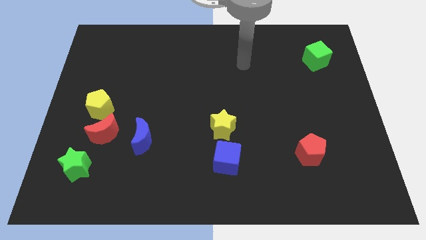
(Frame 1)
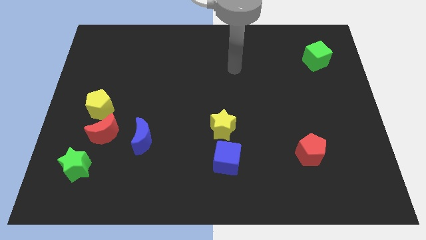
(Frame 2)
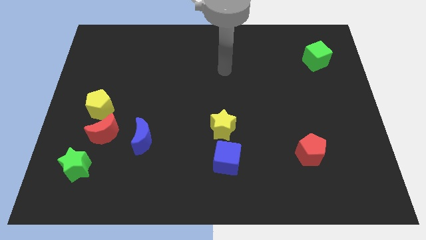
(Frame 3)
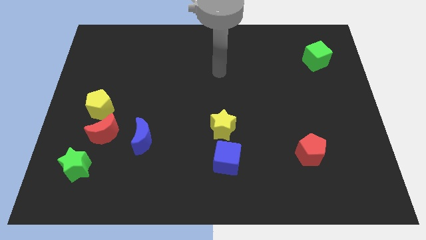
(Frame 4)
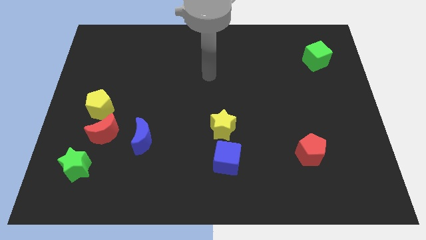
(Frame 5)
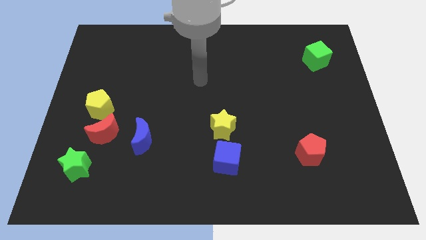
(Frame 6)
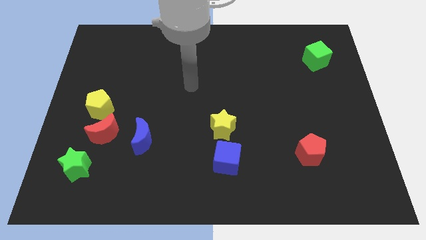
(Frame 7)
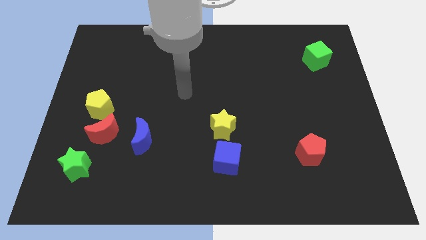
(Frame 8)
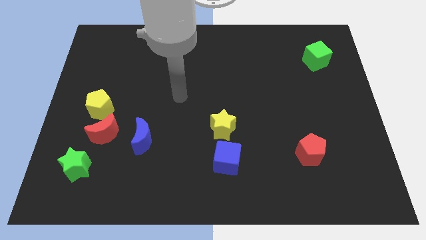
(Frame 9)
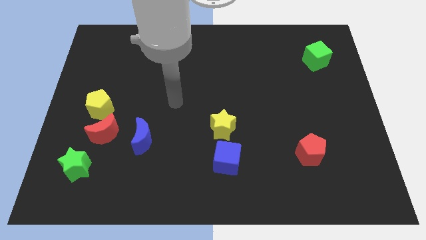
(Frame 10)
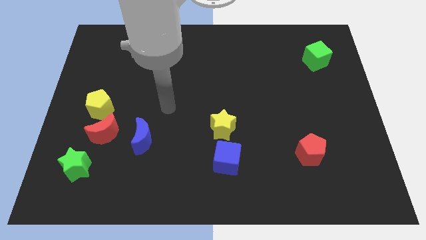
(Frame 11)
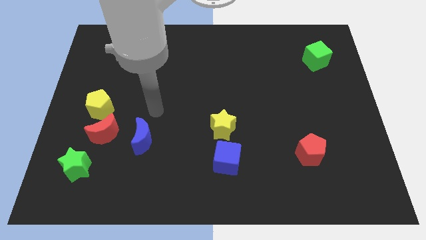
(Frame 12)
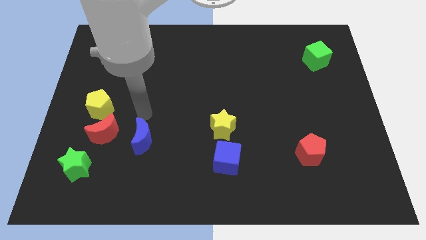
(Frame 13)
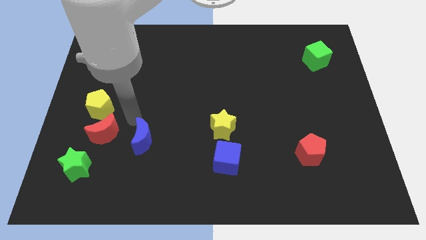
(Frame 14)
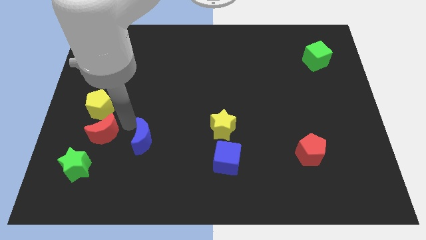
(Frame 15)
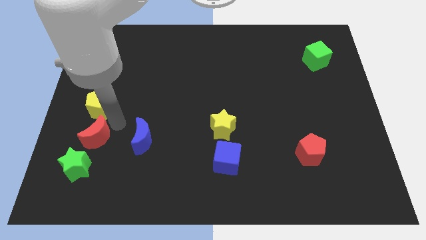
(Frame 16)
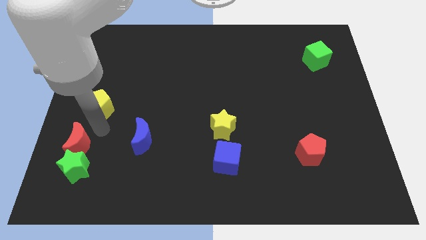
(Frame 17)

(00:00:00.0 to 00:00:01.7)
pull the yellow pentagon apart from the red moon

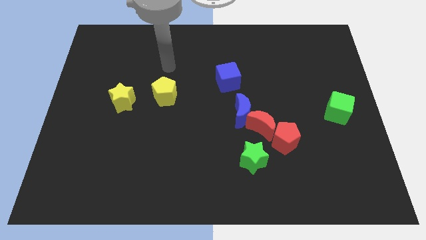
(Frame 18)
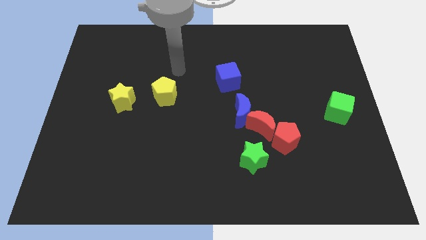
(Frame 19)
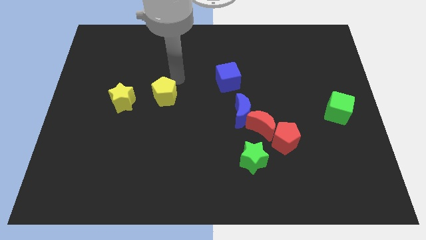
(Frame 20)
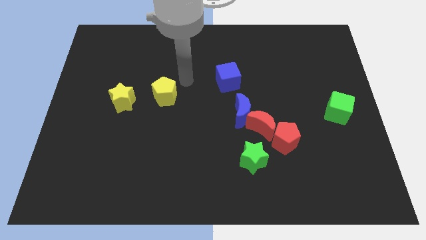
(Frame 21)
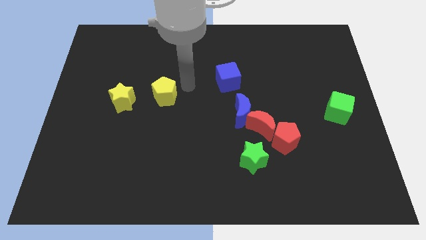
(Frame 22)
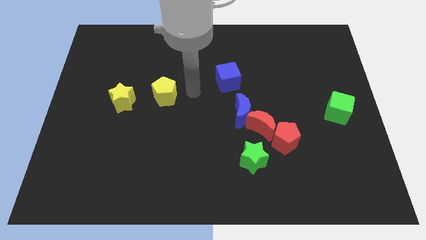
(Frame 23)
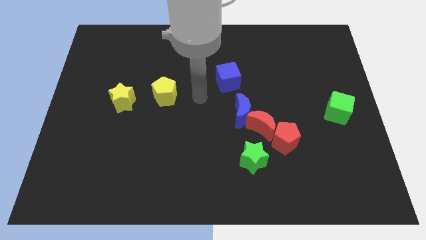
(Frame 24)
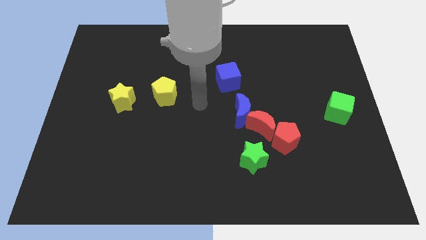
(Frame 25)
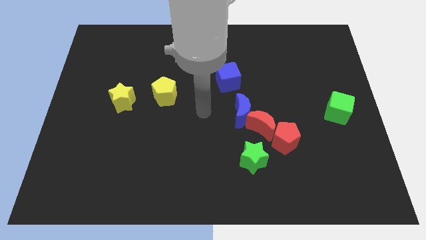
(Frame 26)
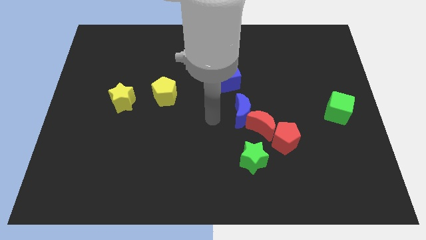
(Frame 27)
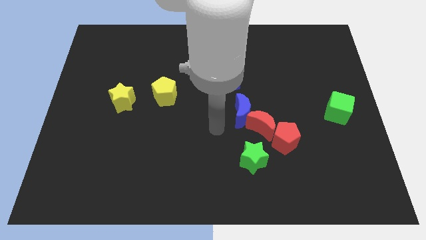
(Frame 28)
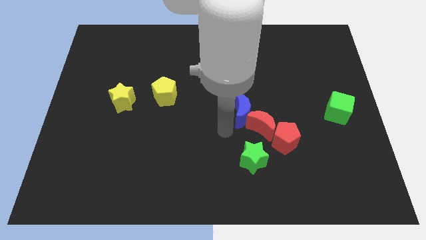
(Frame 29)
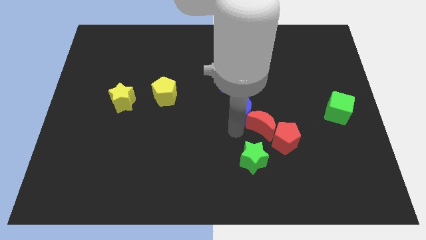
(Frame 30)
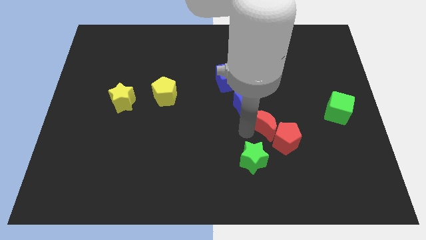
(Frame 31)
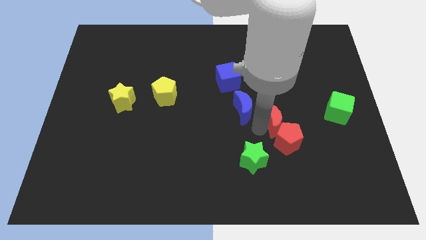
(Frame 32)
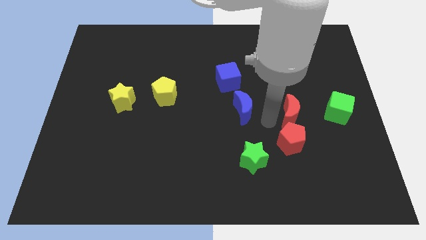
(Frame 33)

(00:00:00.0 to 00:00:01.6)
pull the blue moon apart from the red moon

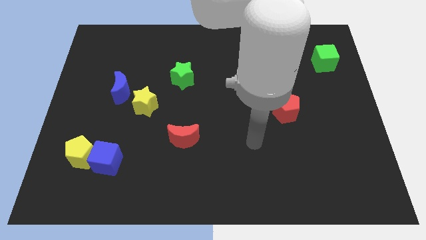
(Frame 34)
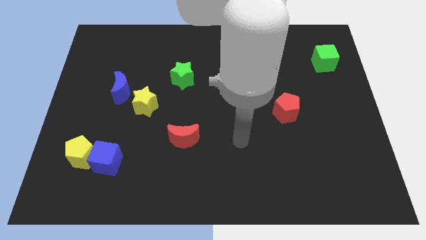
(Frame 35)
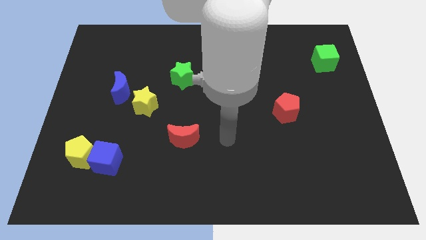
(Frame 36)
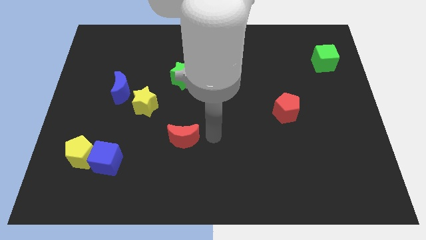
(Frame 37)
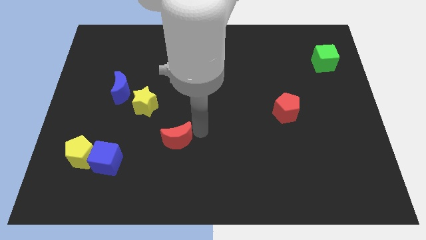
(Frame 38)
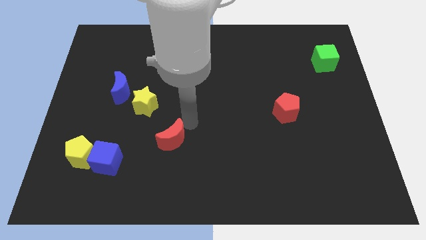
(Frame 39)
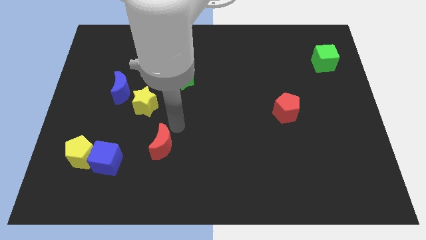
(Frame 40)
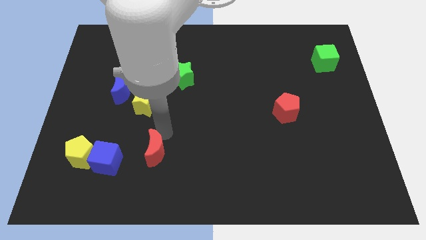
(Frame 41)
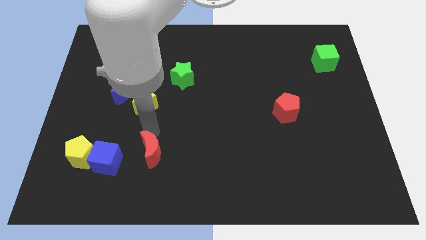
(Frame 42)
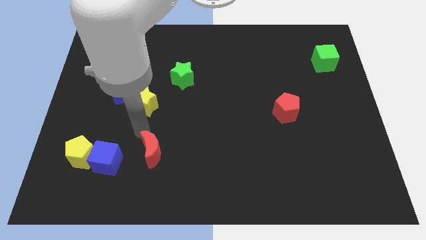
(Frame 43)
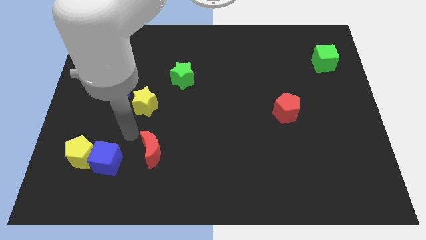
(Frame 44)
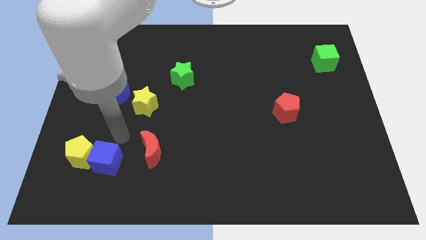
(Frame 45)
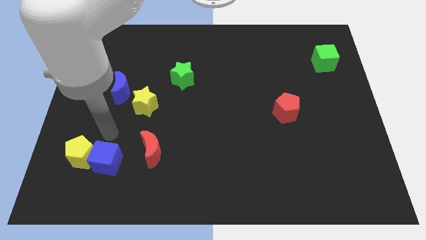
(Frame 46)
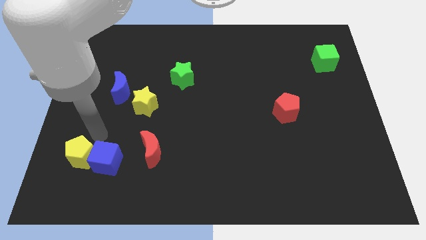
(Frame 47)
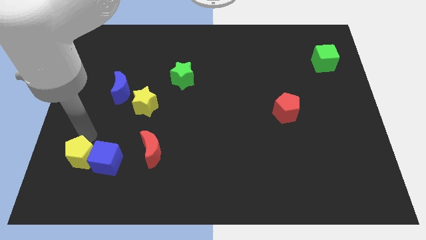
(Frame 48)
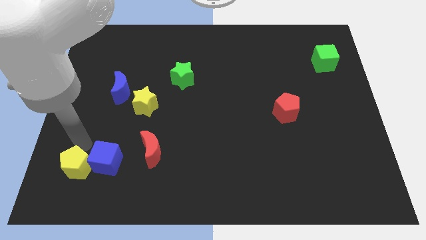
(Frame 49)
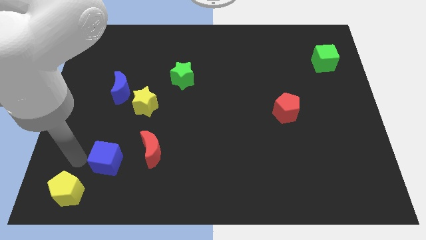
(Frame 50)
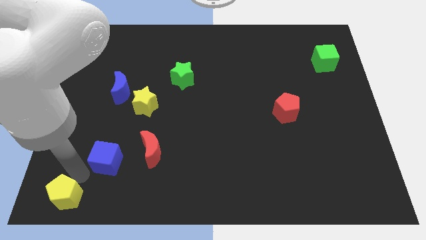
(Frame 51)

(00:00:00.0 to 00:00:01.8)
pull the blue cube apart from the yellow pentagon

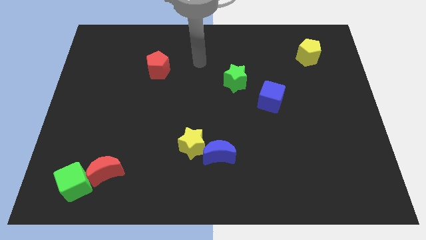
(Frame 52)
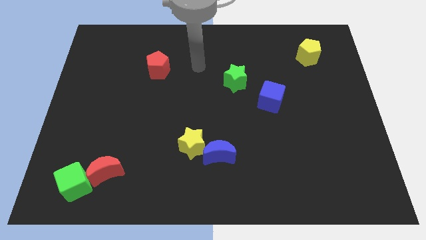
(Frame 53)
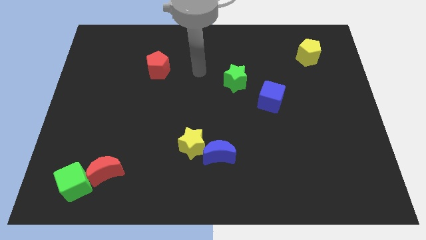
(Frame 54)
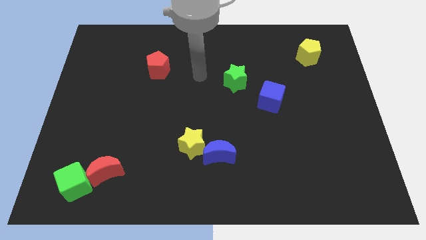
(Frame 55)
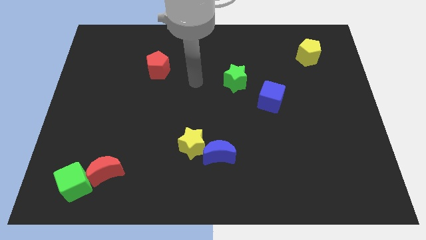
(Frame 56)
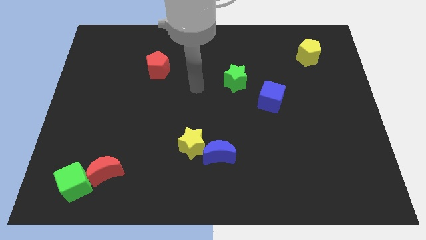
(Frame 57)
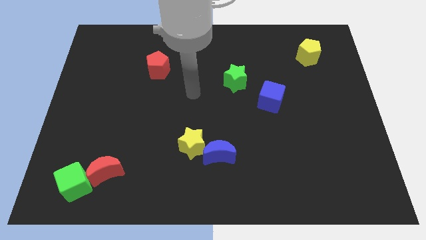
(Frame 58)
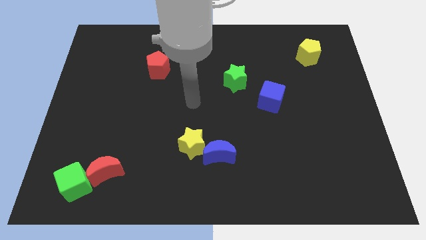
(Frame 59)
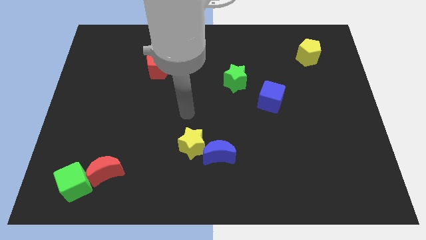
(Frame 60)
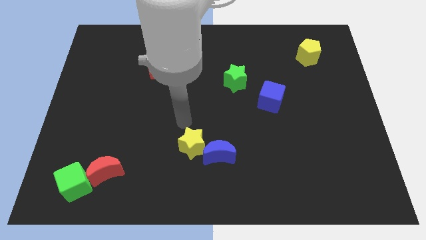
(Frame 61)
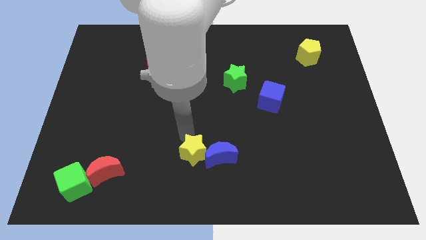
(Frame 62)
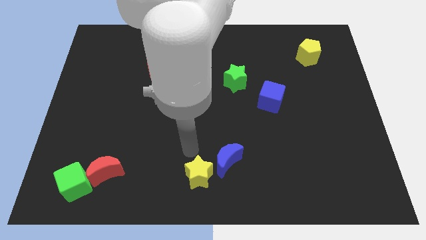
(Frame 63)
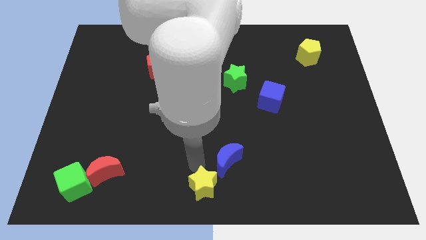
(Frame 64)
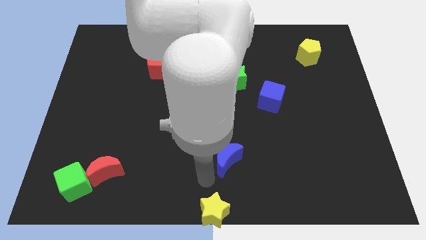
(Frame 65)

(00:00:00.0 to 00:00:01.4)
move the blue moon away from the yellow star

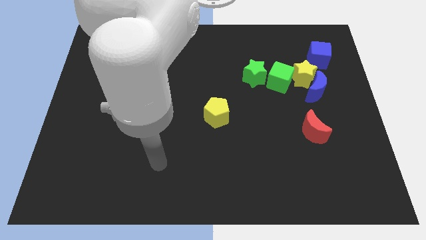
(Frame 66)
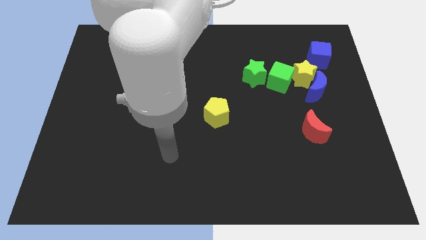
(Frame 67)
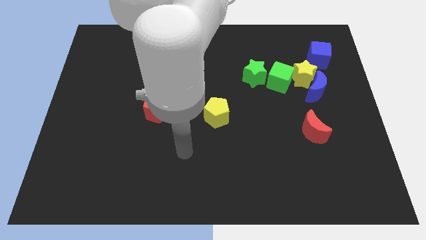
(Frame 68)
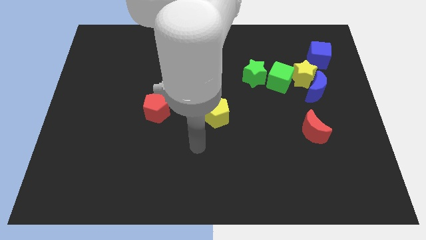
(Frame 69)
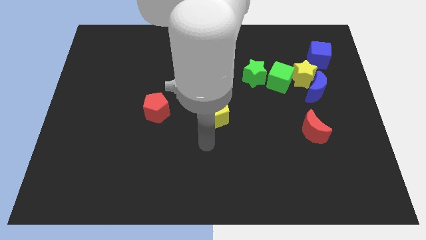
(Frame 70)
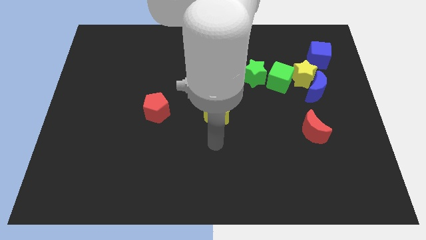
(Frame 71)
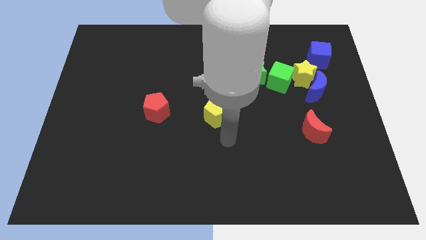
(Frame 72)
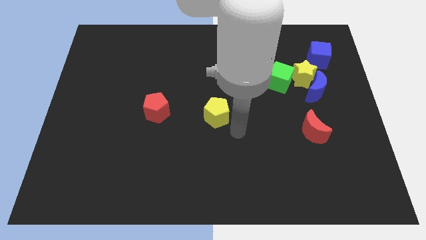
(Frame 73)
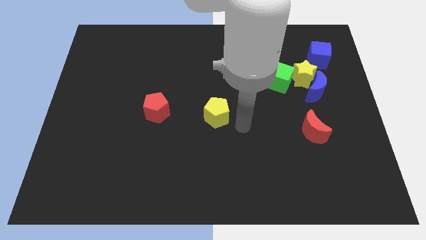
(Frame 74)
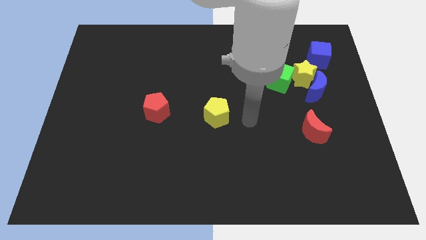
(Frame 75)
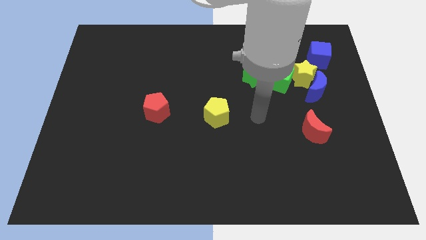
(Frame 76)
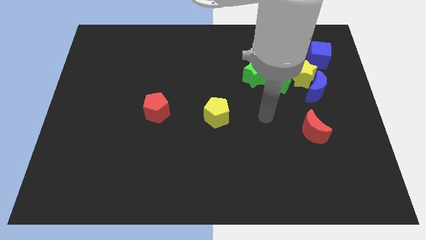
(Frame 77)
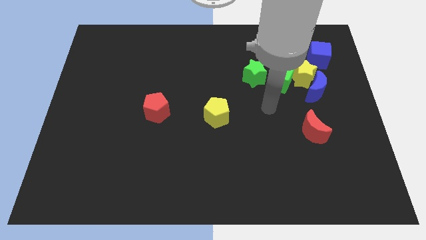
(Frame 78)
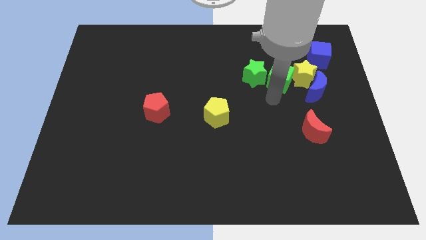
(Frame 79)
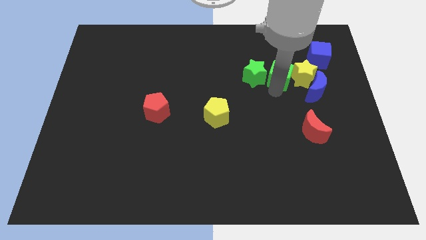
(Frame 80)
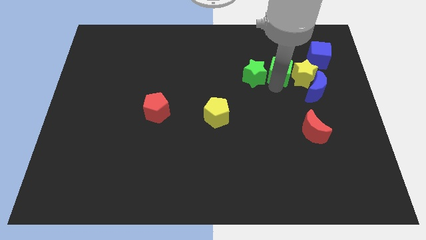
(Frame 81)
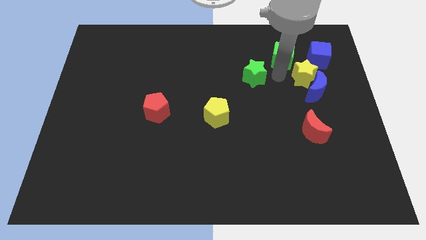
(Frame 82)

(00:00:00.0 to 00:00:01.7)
separate the green star from the green cube

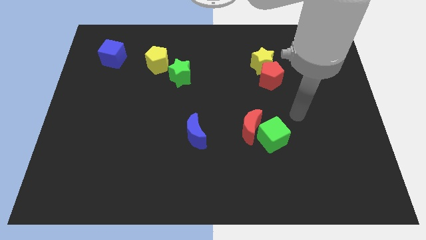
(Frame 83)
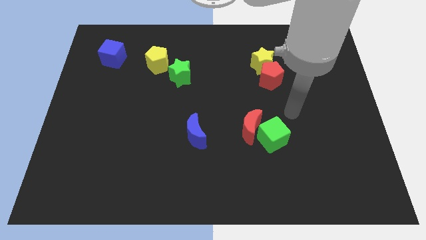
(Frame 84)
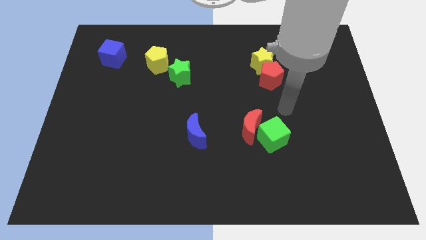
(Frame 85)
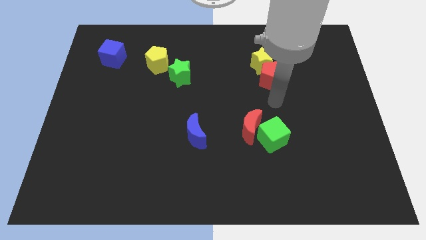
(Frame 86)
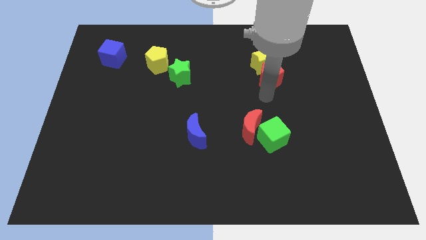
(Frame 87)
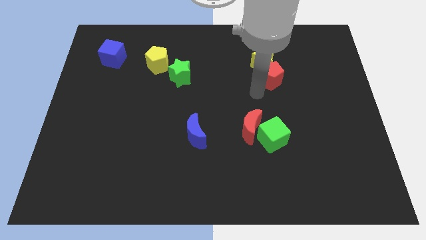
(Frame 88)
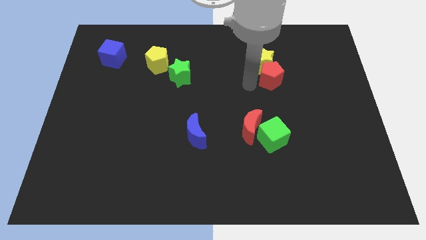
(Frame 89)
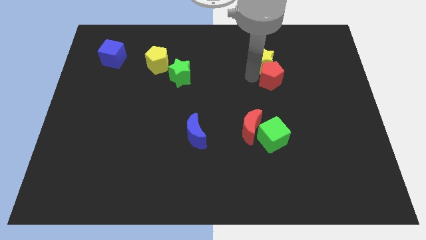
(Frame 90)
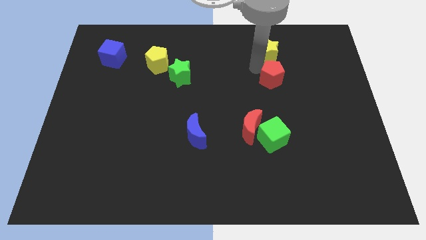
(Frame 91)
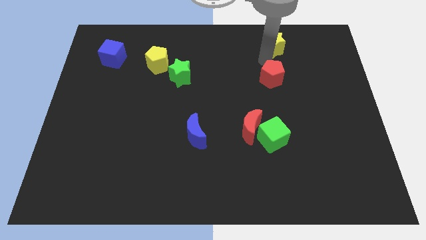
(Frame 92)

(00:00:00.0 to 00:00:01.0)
separate the red pentagon from the yellow star
